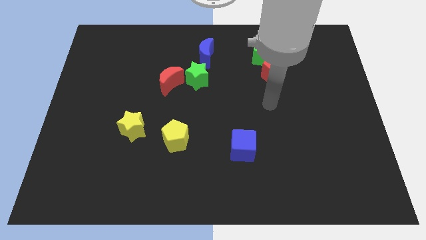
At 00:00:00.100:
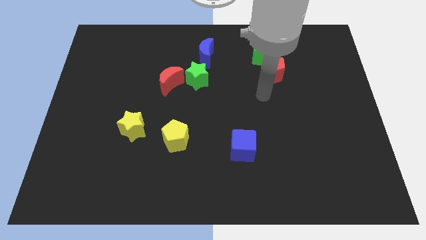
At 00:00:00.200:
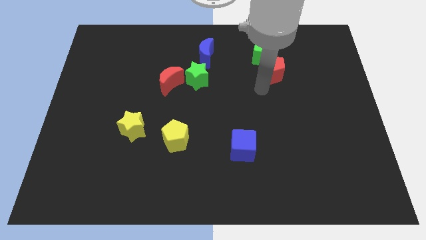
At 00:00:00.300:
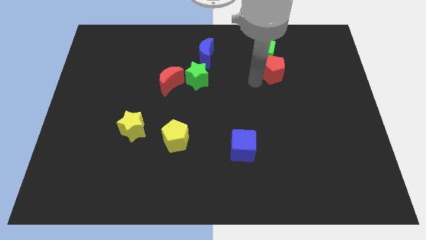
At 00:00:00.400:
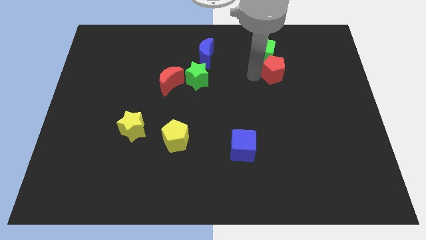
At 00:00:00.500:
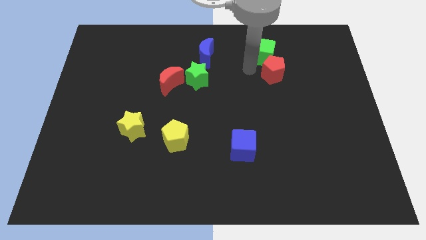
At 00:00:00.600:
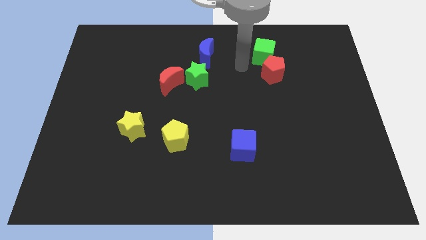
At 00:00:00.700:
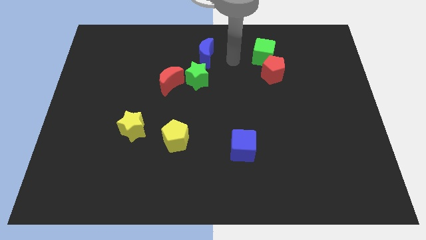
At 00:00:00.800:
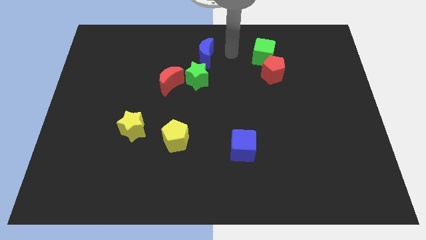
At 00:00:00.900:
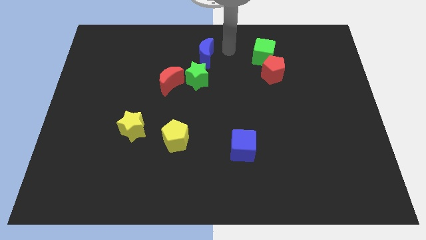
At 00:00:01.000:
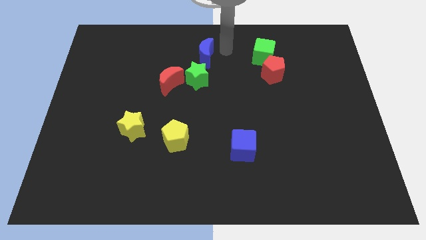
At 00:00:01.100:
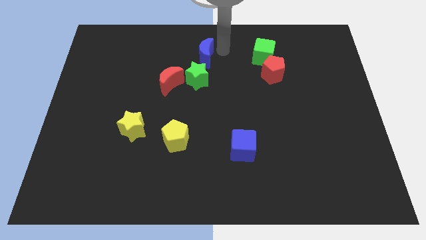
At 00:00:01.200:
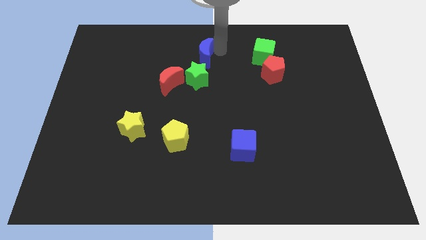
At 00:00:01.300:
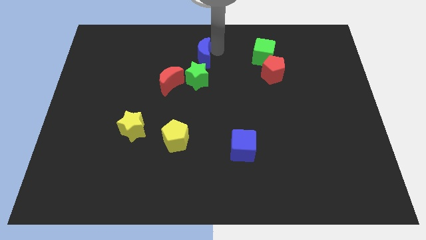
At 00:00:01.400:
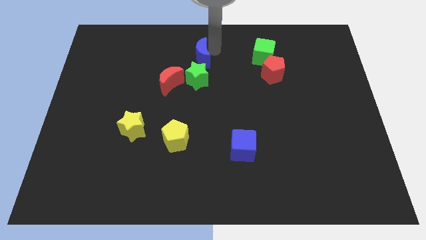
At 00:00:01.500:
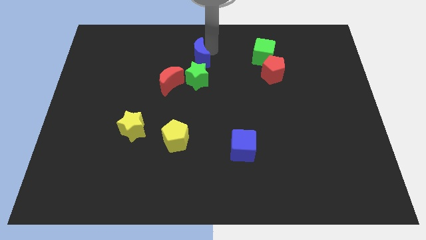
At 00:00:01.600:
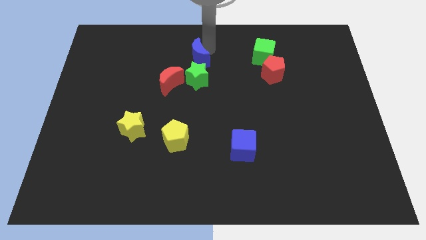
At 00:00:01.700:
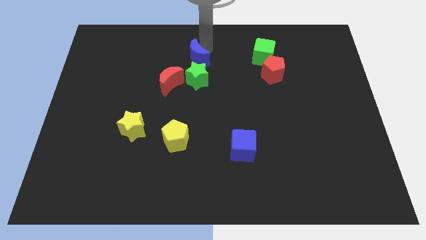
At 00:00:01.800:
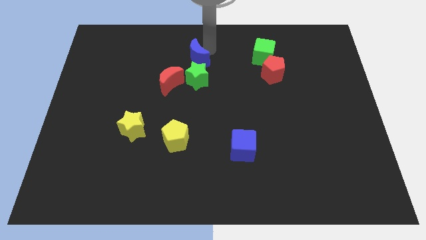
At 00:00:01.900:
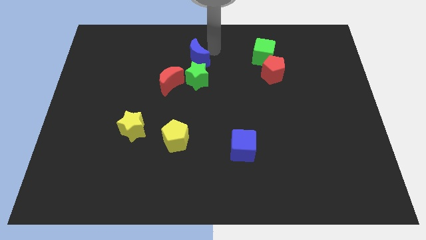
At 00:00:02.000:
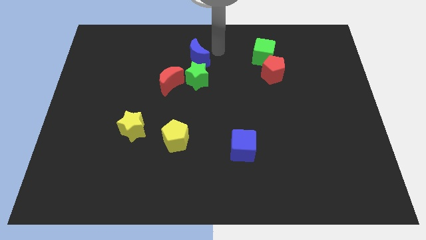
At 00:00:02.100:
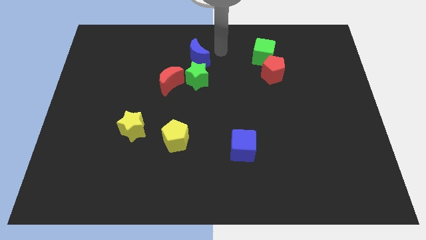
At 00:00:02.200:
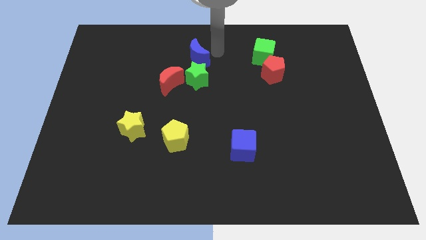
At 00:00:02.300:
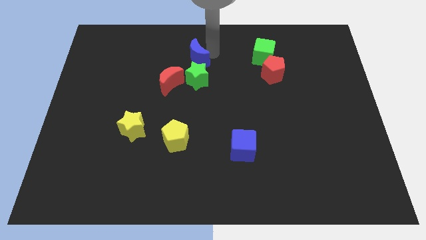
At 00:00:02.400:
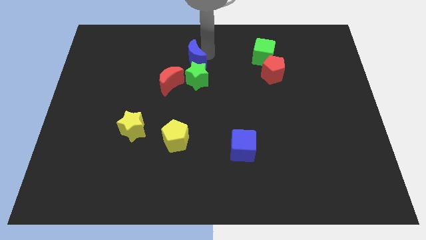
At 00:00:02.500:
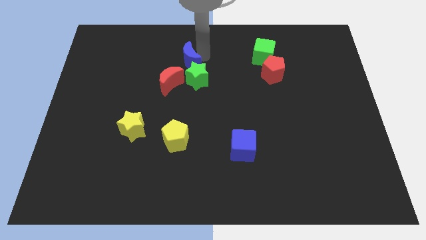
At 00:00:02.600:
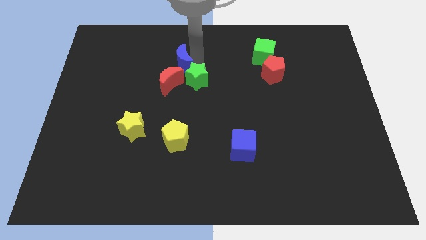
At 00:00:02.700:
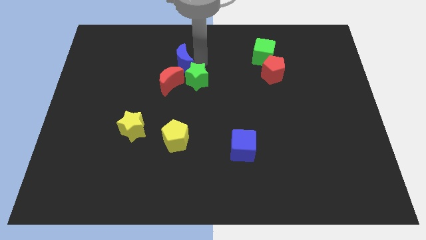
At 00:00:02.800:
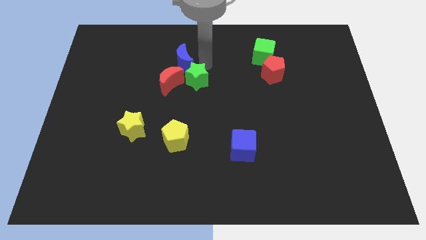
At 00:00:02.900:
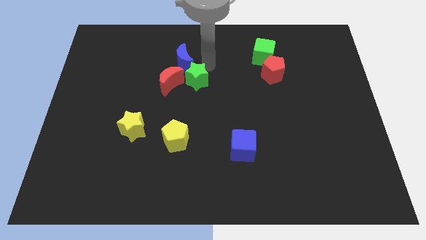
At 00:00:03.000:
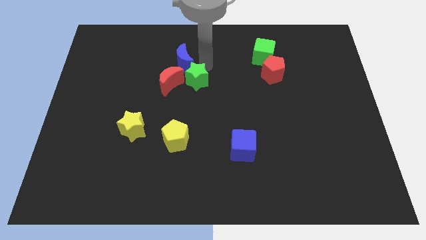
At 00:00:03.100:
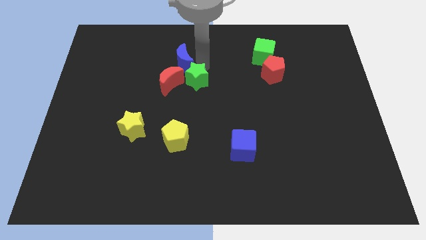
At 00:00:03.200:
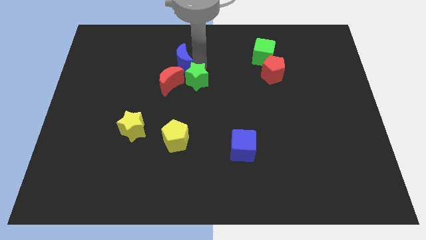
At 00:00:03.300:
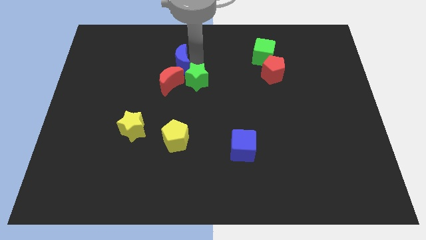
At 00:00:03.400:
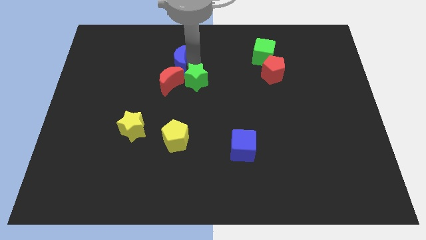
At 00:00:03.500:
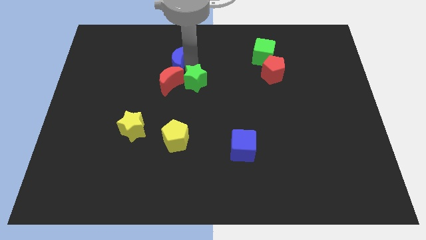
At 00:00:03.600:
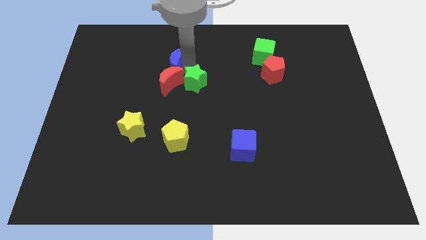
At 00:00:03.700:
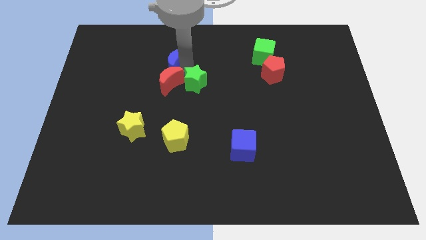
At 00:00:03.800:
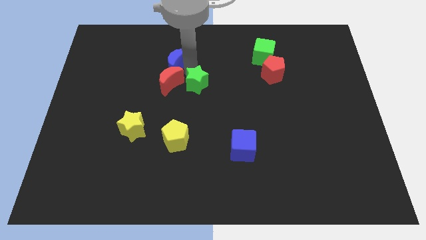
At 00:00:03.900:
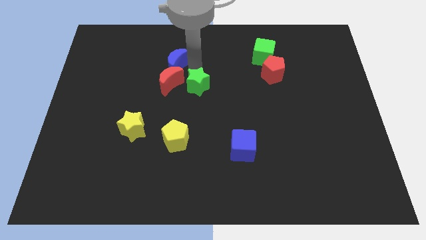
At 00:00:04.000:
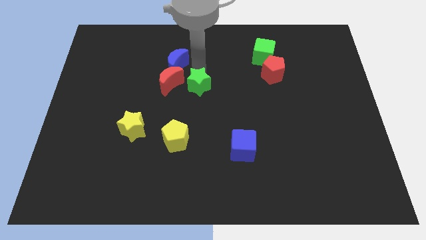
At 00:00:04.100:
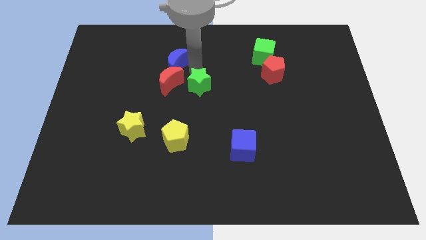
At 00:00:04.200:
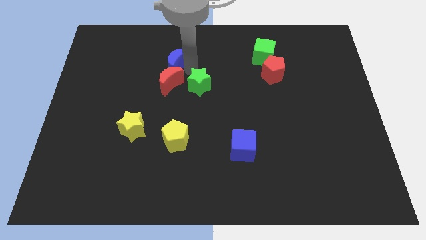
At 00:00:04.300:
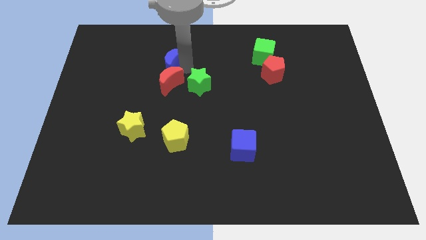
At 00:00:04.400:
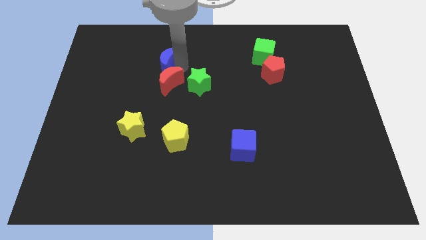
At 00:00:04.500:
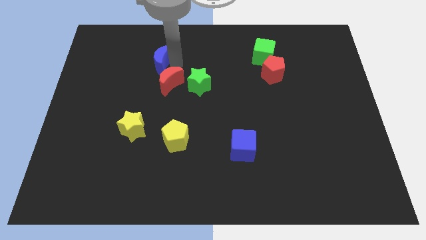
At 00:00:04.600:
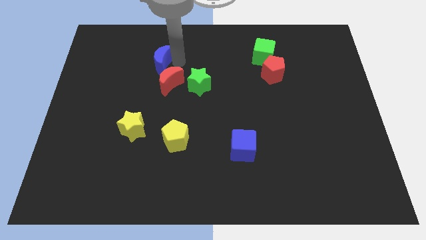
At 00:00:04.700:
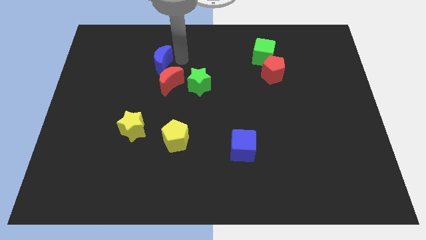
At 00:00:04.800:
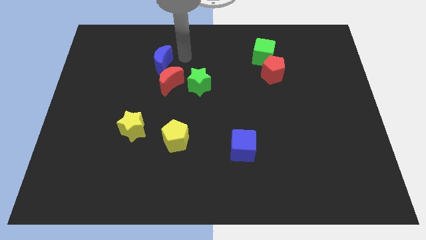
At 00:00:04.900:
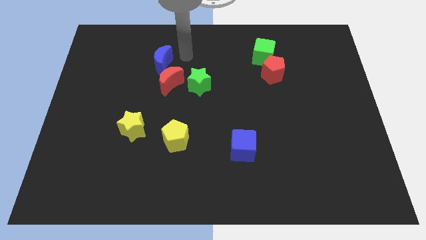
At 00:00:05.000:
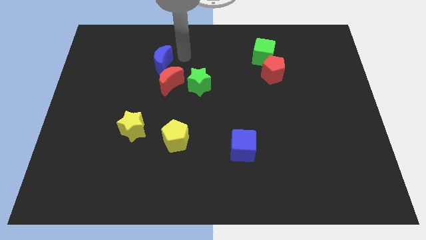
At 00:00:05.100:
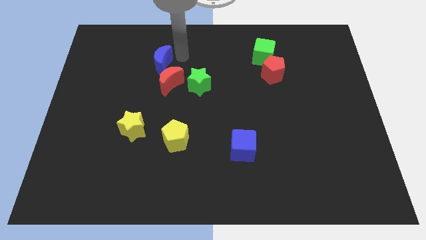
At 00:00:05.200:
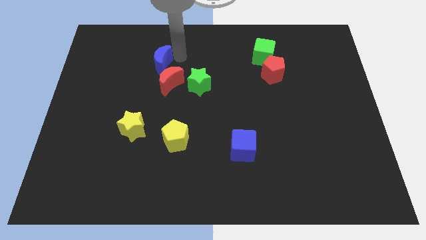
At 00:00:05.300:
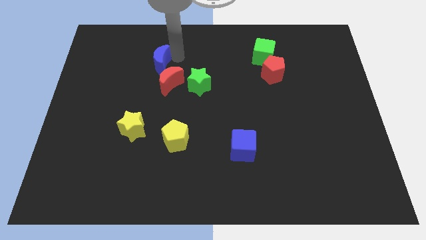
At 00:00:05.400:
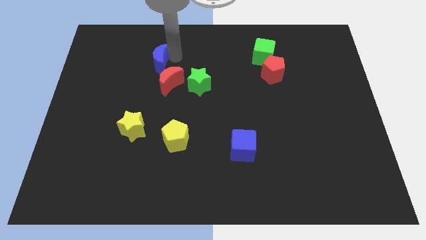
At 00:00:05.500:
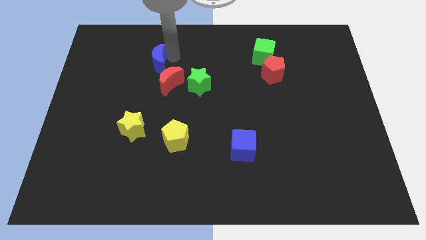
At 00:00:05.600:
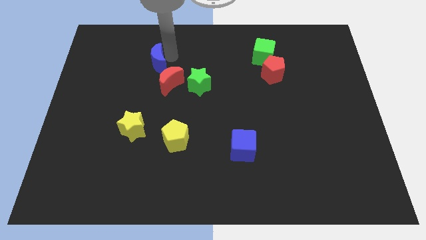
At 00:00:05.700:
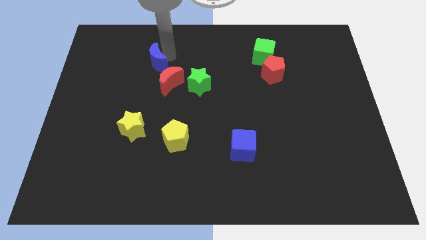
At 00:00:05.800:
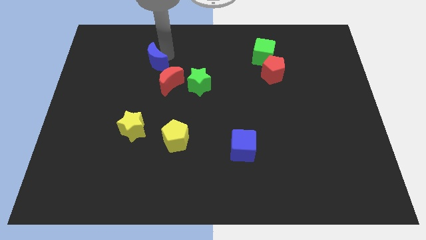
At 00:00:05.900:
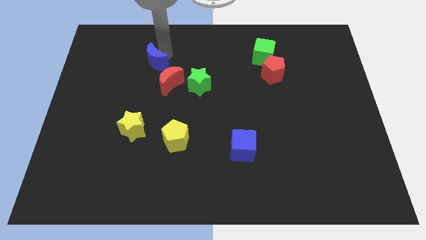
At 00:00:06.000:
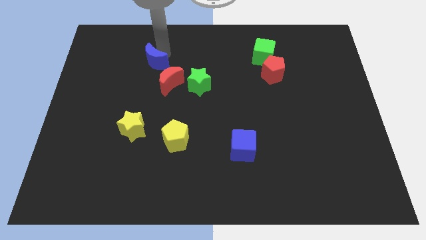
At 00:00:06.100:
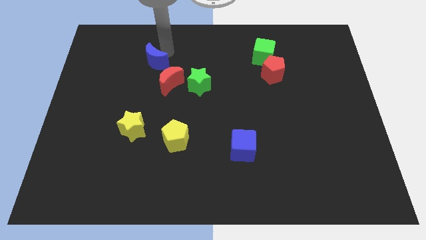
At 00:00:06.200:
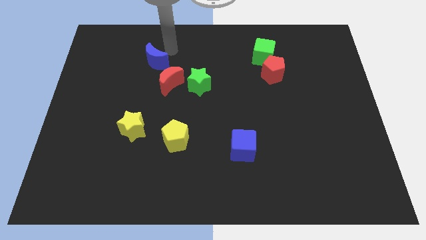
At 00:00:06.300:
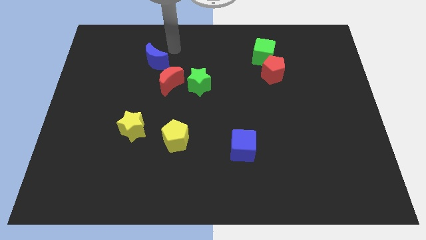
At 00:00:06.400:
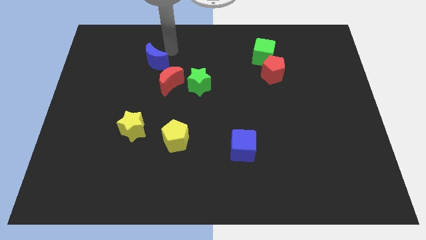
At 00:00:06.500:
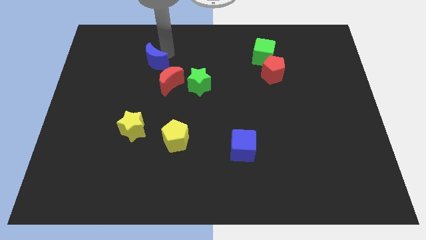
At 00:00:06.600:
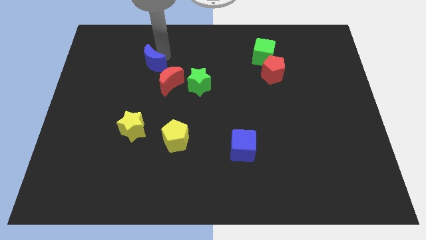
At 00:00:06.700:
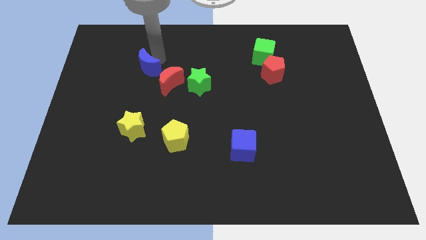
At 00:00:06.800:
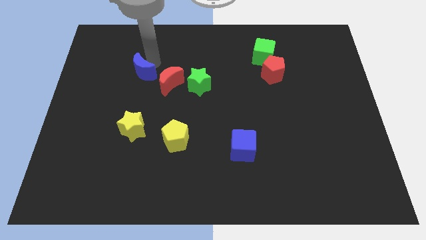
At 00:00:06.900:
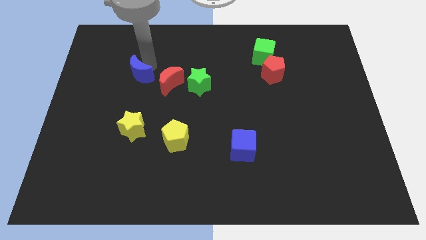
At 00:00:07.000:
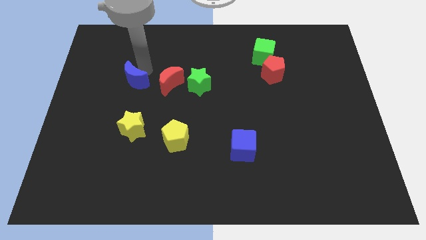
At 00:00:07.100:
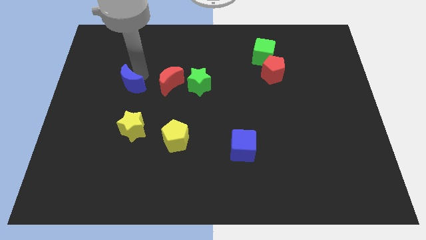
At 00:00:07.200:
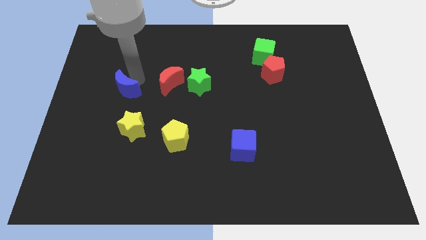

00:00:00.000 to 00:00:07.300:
push the blue moon downwards and then left
